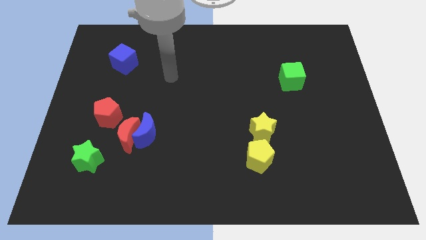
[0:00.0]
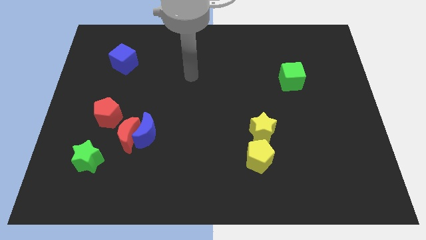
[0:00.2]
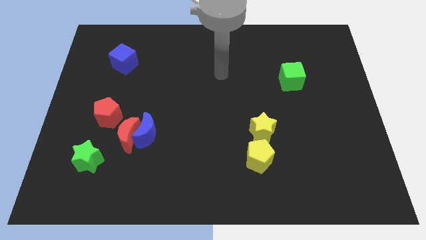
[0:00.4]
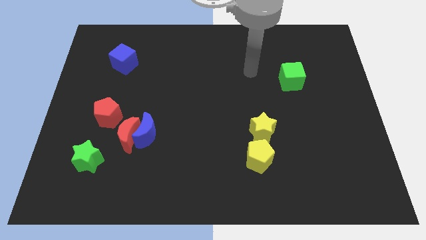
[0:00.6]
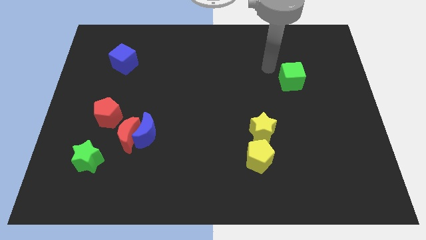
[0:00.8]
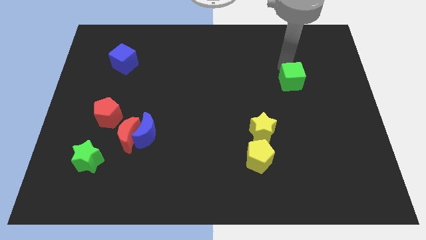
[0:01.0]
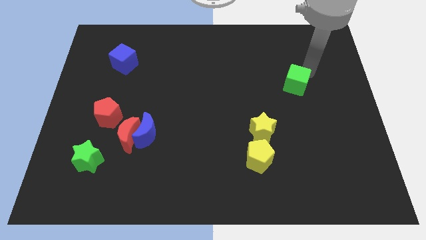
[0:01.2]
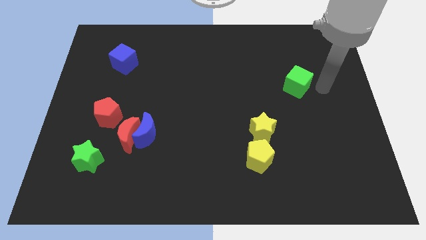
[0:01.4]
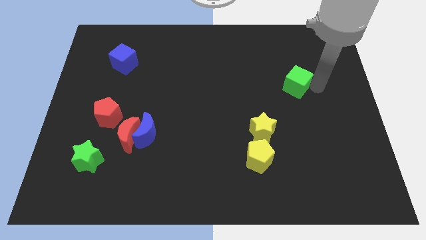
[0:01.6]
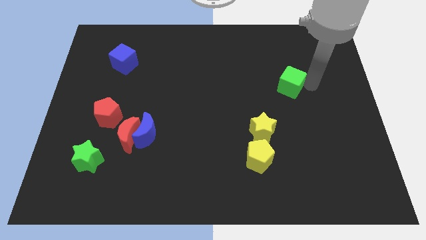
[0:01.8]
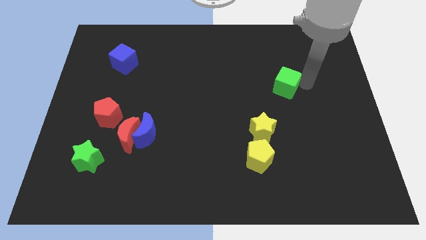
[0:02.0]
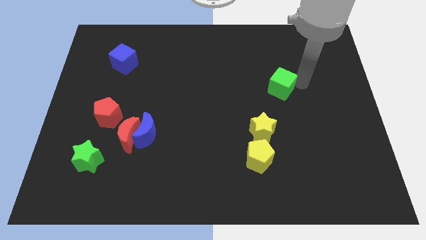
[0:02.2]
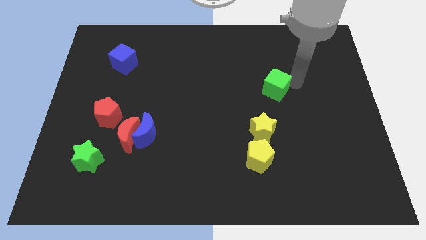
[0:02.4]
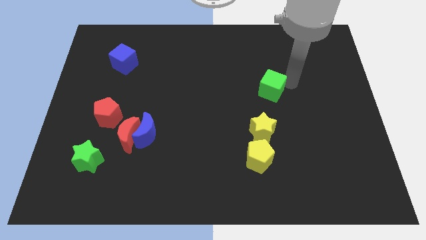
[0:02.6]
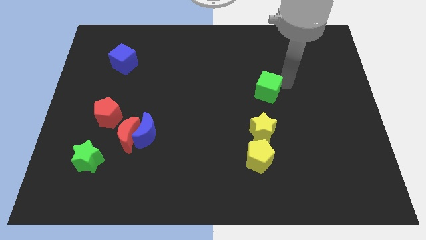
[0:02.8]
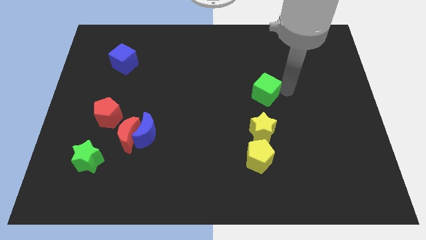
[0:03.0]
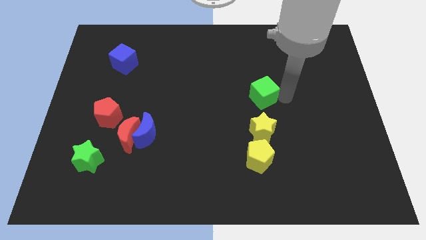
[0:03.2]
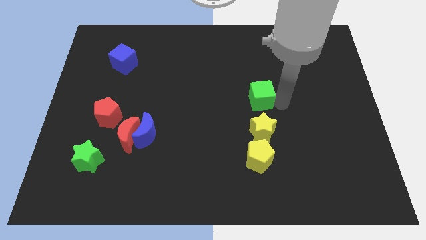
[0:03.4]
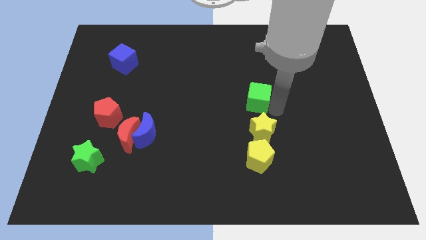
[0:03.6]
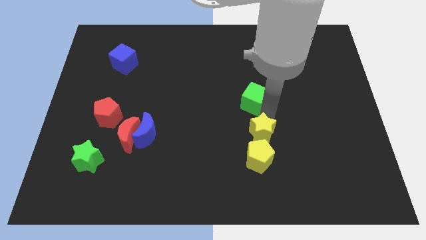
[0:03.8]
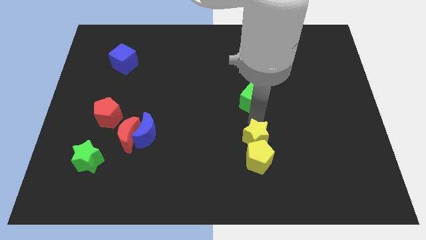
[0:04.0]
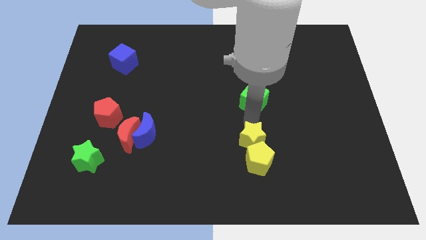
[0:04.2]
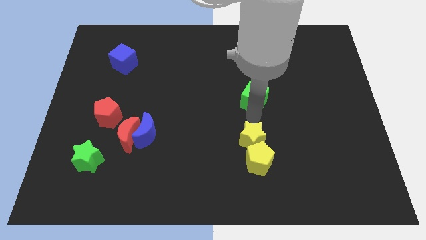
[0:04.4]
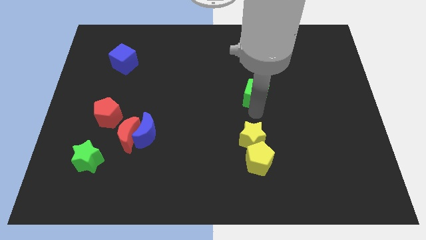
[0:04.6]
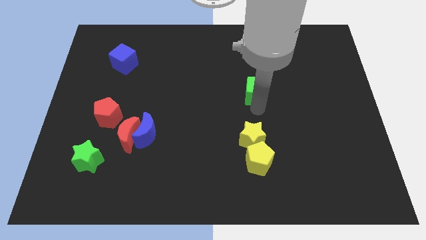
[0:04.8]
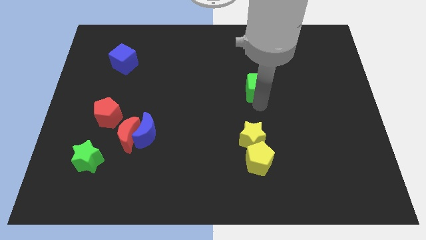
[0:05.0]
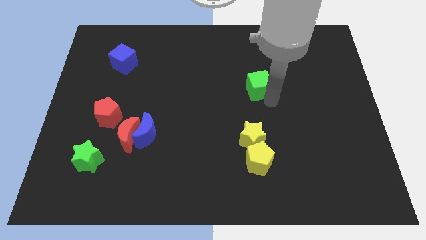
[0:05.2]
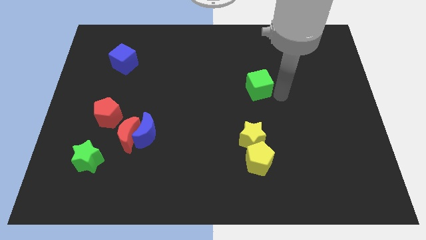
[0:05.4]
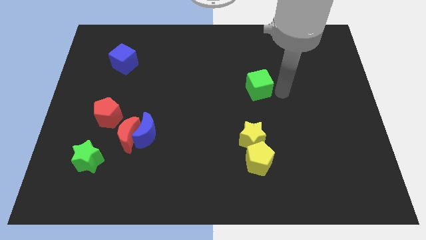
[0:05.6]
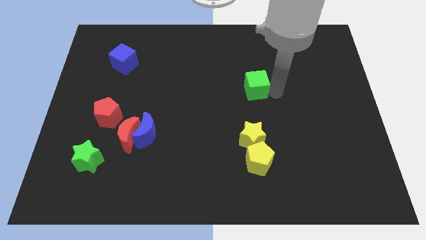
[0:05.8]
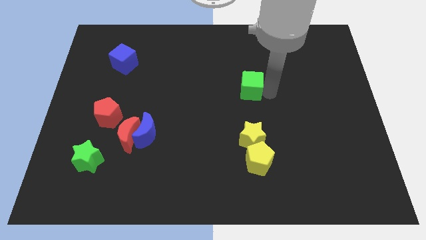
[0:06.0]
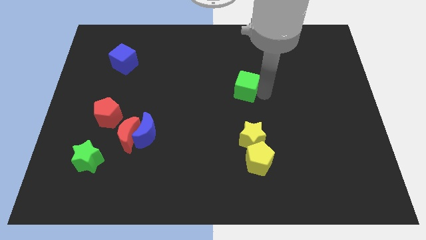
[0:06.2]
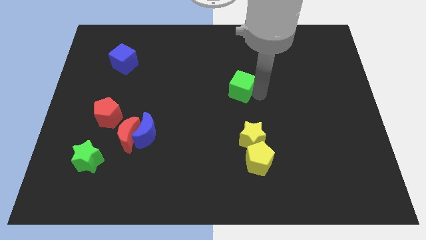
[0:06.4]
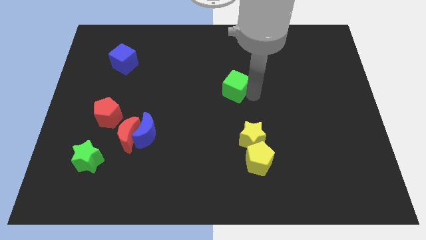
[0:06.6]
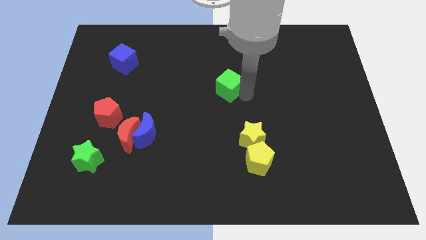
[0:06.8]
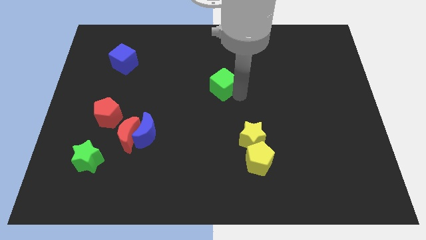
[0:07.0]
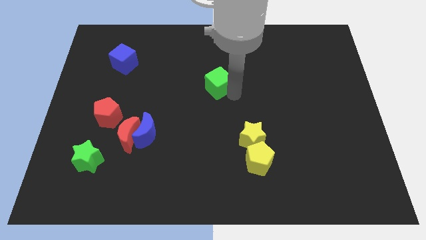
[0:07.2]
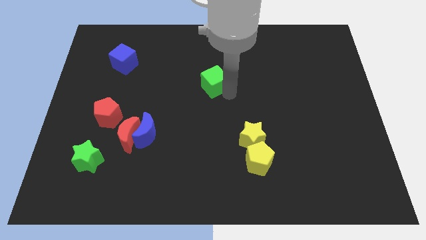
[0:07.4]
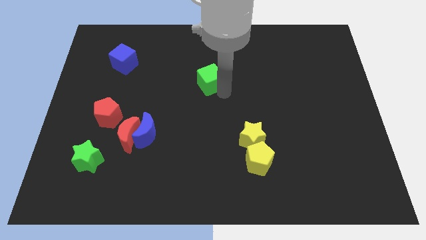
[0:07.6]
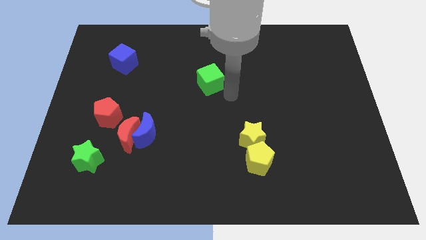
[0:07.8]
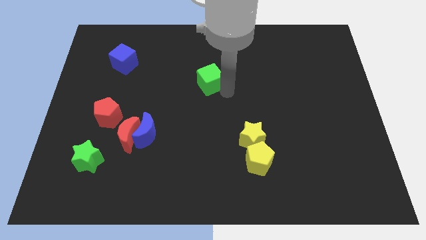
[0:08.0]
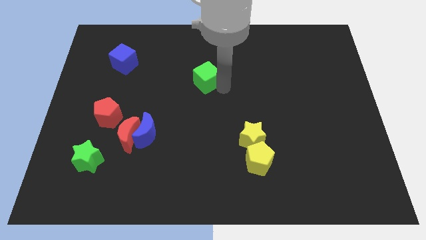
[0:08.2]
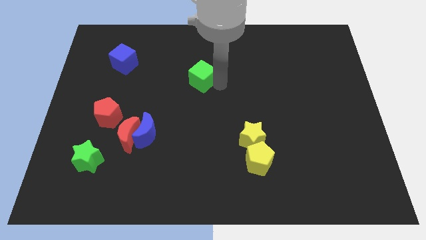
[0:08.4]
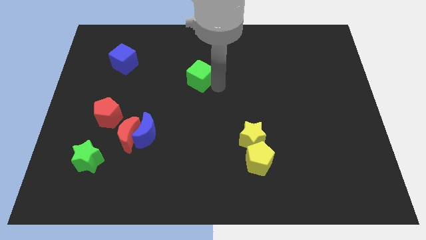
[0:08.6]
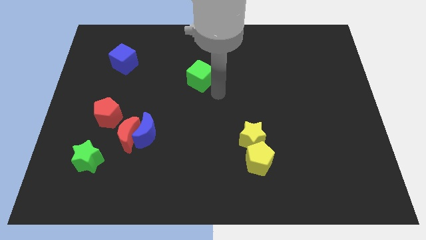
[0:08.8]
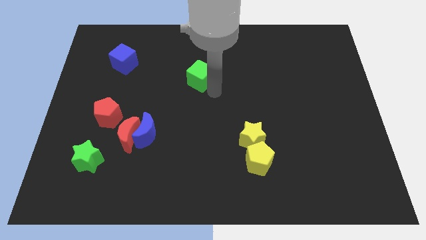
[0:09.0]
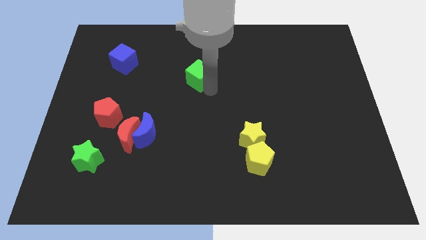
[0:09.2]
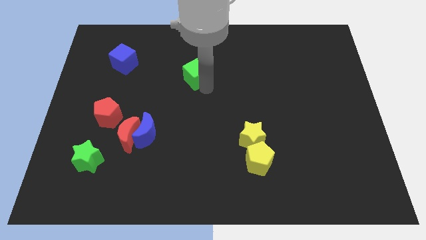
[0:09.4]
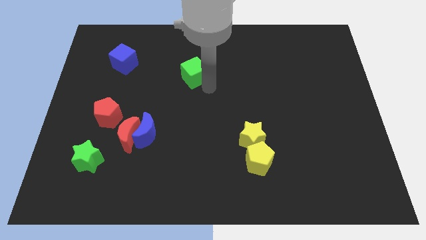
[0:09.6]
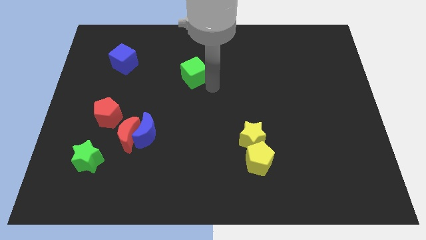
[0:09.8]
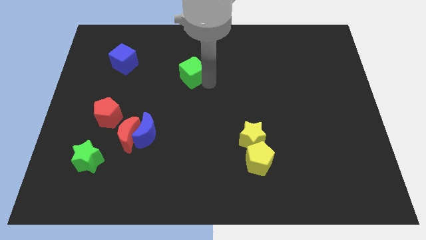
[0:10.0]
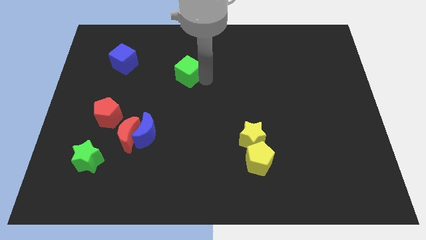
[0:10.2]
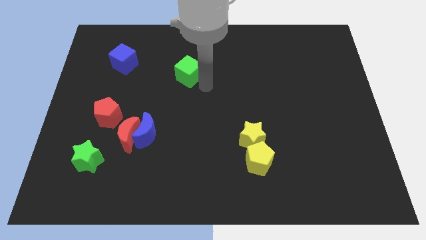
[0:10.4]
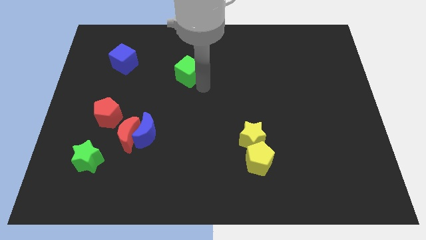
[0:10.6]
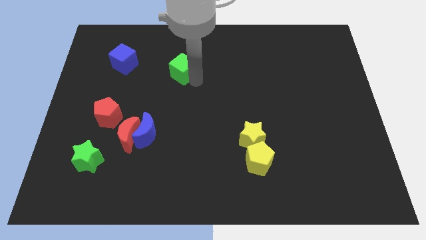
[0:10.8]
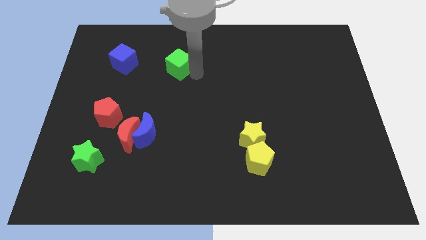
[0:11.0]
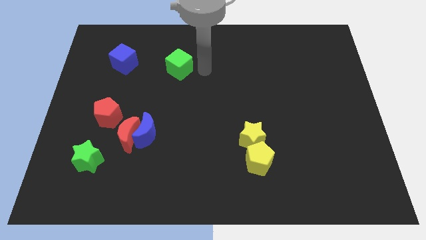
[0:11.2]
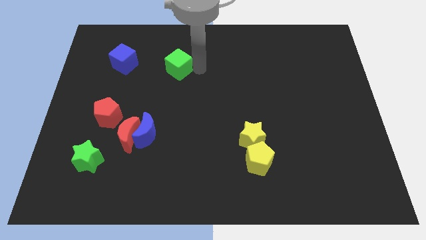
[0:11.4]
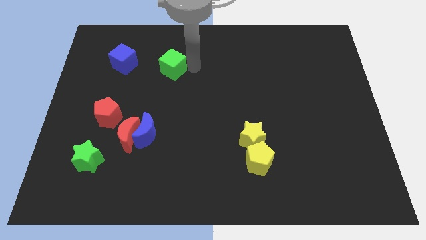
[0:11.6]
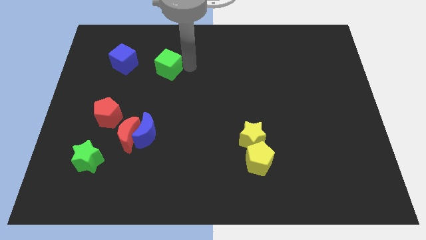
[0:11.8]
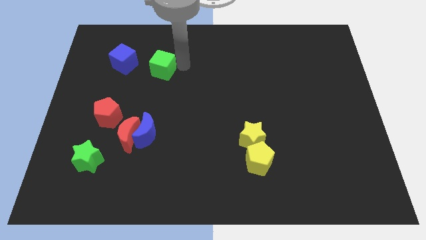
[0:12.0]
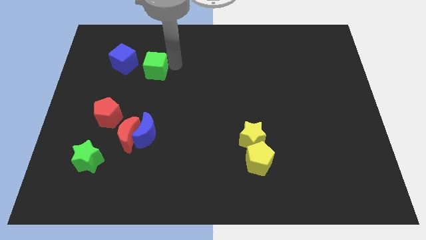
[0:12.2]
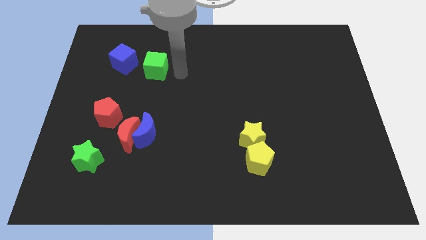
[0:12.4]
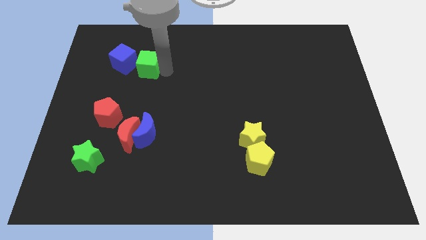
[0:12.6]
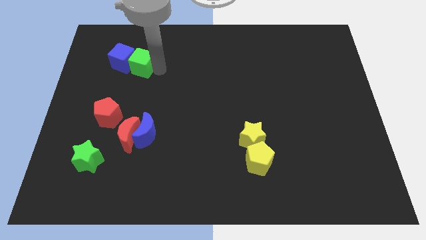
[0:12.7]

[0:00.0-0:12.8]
put the green cube towards the blue cube

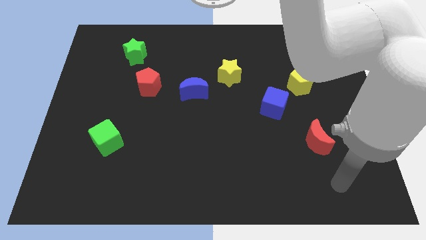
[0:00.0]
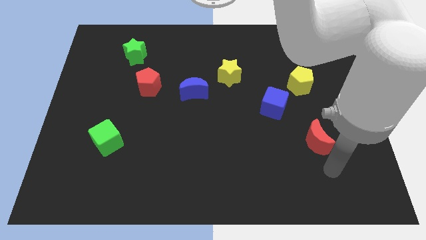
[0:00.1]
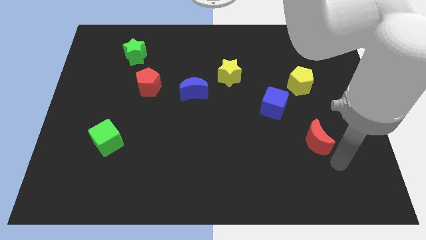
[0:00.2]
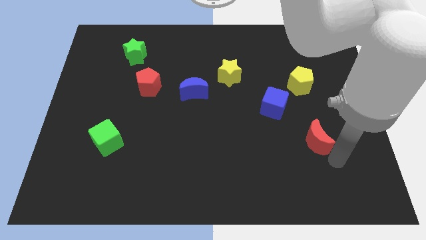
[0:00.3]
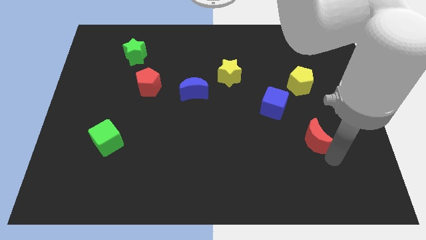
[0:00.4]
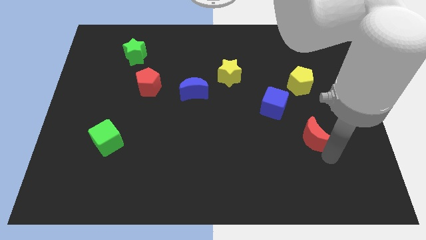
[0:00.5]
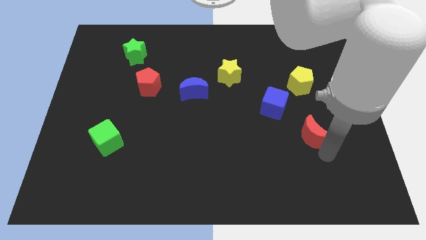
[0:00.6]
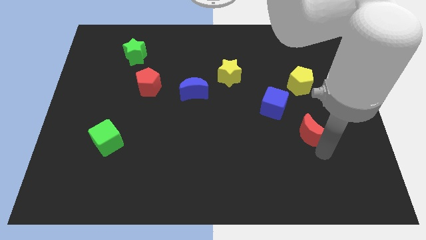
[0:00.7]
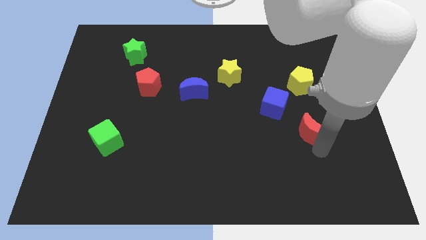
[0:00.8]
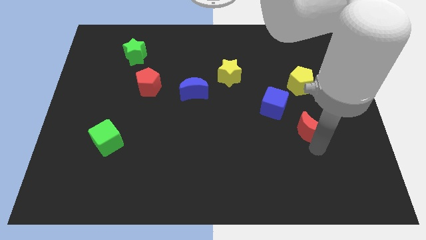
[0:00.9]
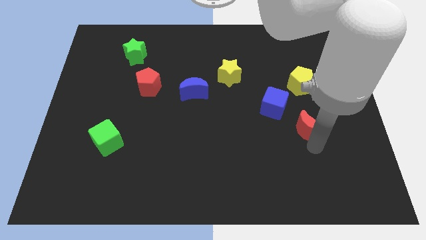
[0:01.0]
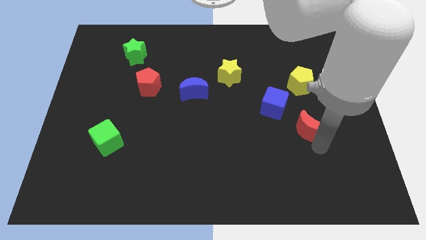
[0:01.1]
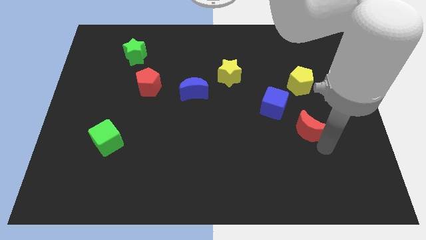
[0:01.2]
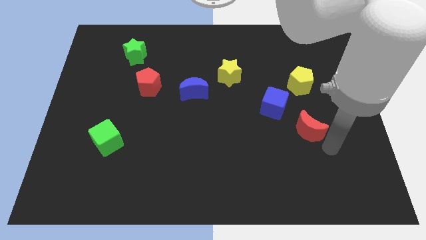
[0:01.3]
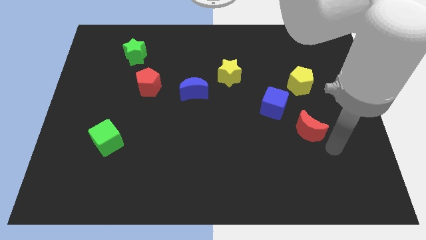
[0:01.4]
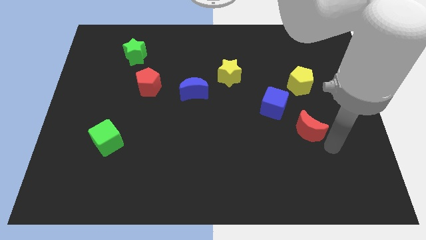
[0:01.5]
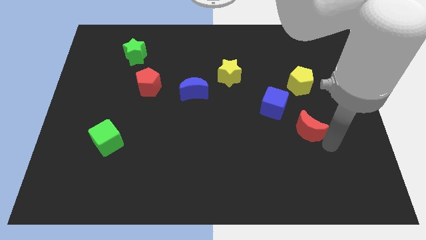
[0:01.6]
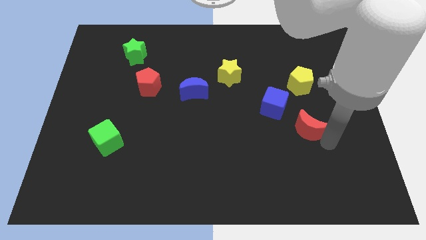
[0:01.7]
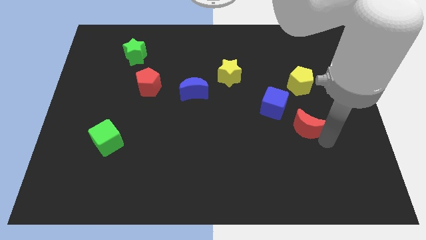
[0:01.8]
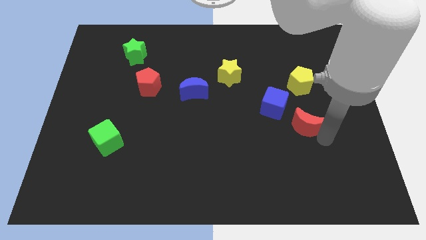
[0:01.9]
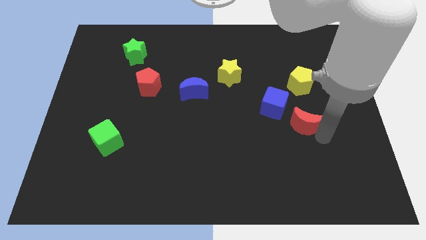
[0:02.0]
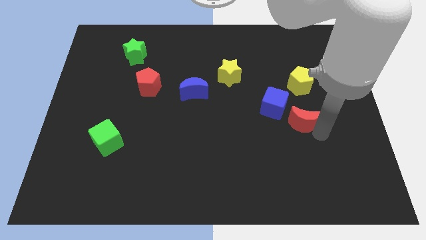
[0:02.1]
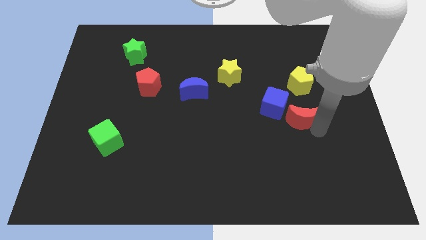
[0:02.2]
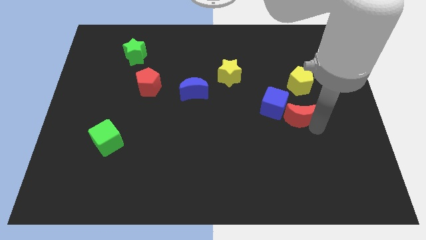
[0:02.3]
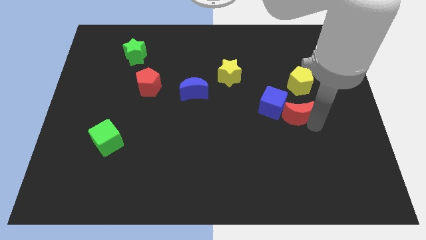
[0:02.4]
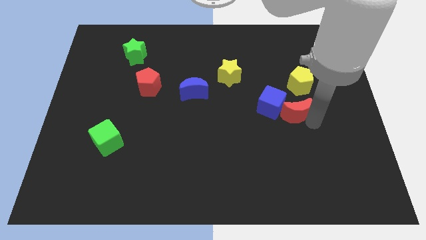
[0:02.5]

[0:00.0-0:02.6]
push the red moon towards the blue cube
